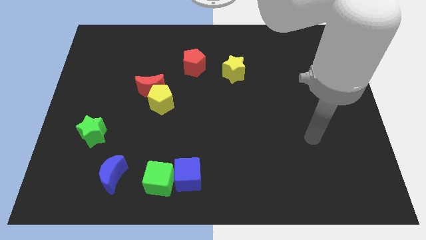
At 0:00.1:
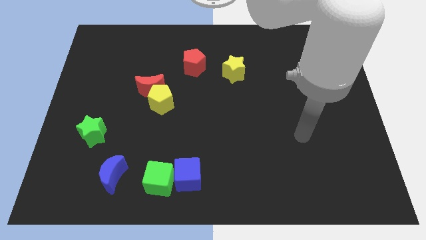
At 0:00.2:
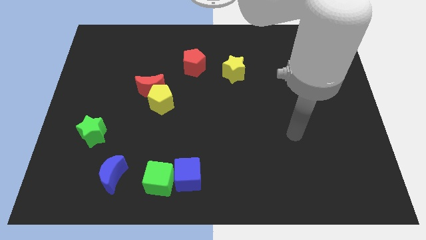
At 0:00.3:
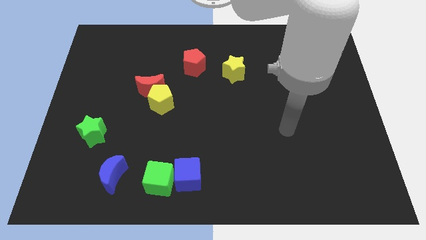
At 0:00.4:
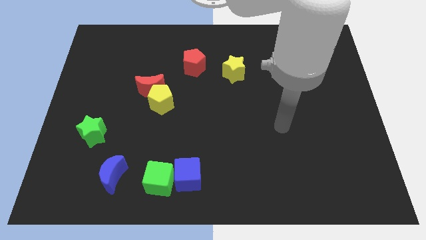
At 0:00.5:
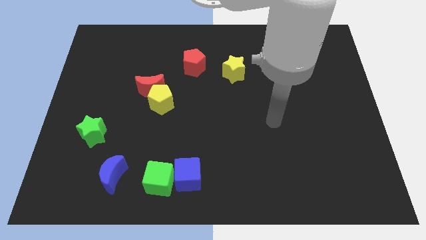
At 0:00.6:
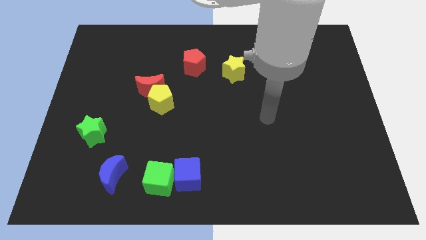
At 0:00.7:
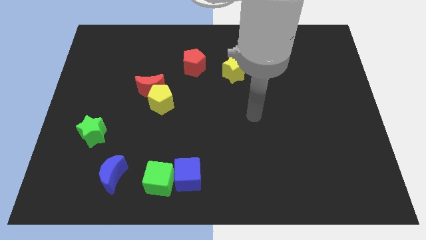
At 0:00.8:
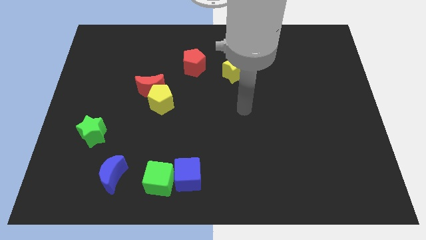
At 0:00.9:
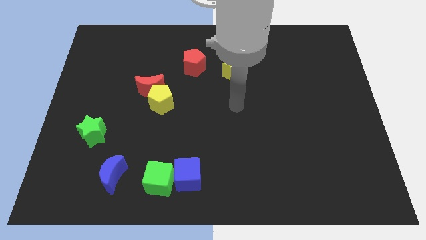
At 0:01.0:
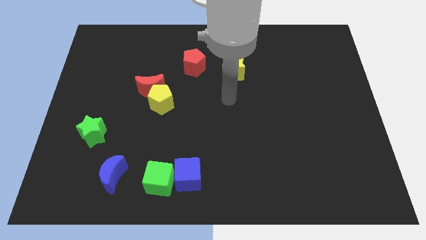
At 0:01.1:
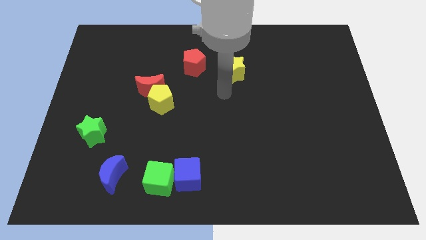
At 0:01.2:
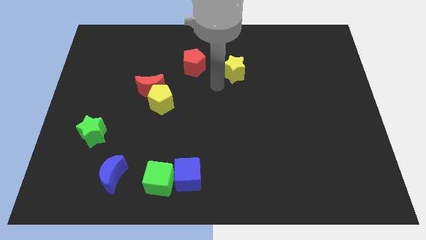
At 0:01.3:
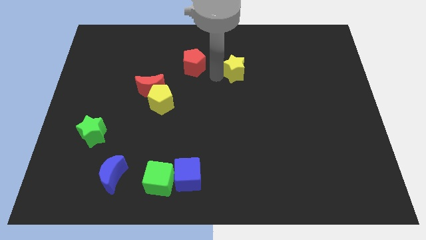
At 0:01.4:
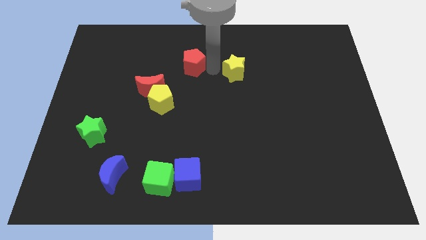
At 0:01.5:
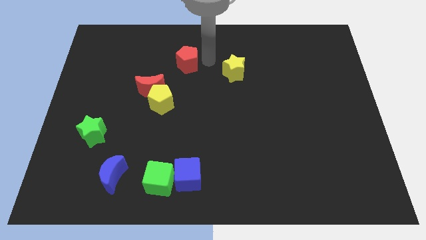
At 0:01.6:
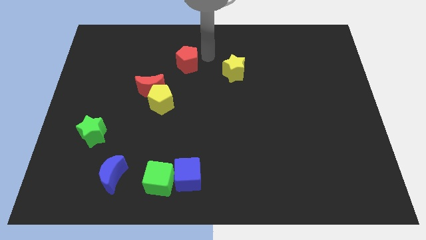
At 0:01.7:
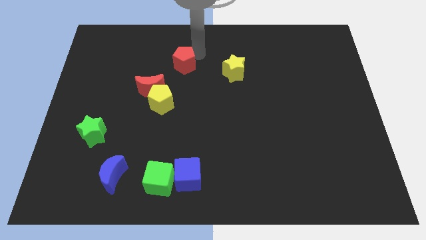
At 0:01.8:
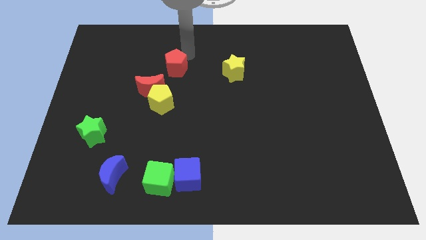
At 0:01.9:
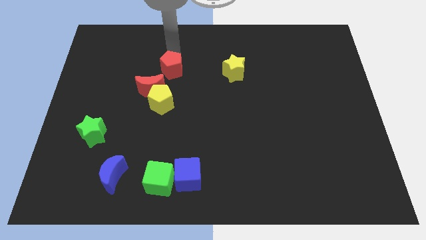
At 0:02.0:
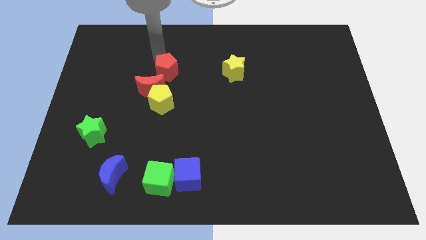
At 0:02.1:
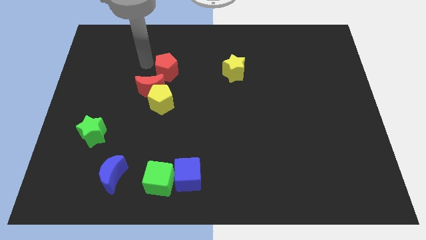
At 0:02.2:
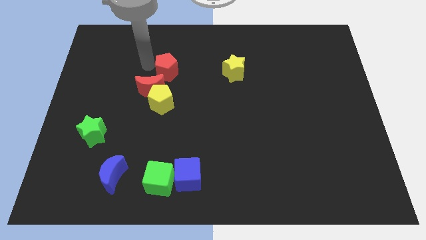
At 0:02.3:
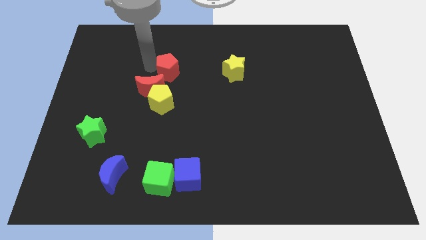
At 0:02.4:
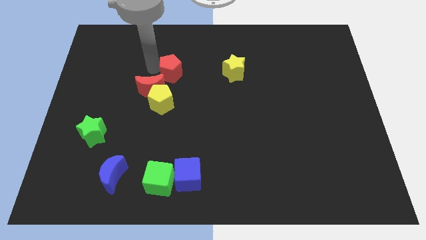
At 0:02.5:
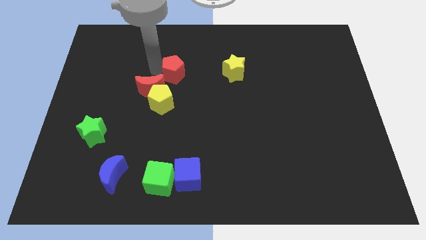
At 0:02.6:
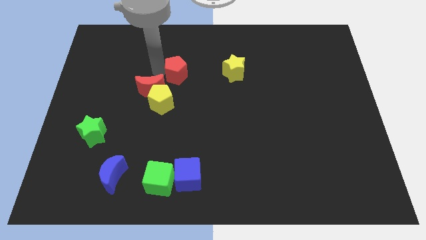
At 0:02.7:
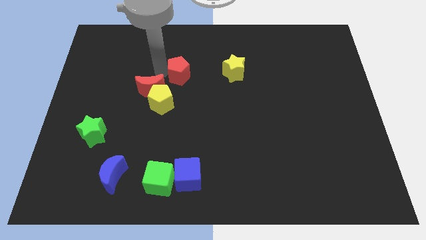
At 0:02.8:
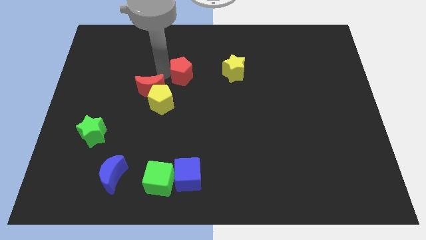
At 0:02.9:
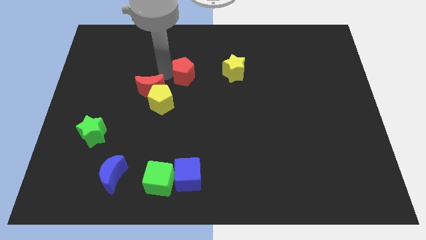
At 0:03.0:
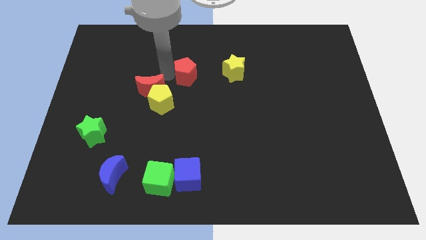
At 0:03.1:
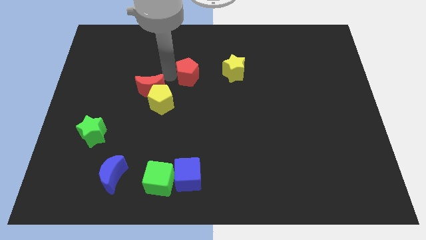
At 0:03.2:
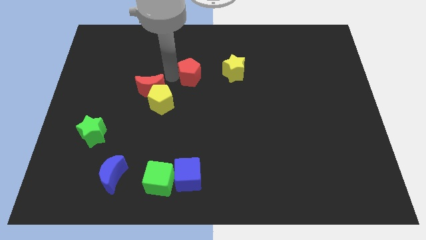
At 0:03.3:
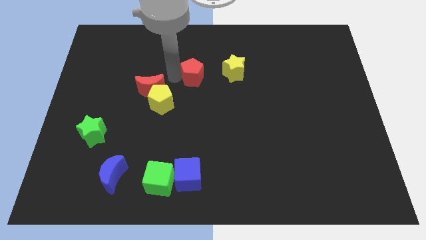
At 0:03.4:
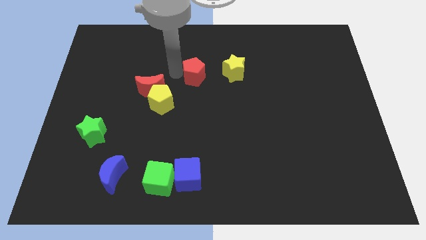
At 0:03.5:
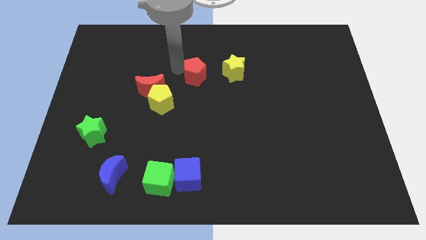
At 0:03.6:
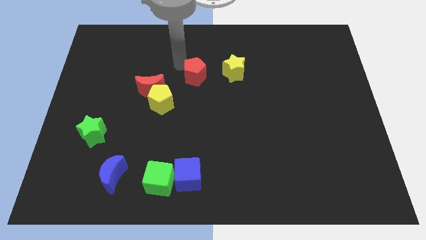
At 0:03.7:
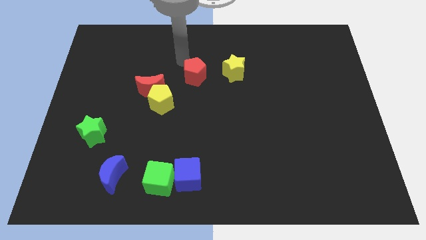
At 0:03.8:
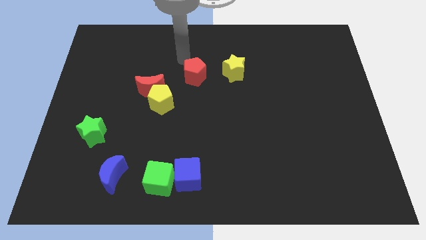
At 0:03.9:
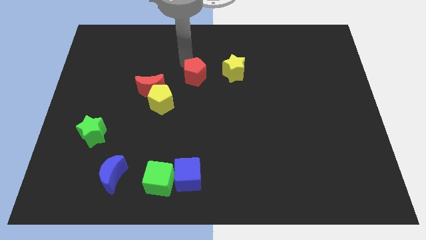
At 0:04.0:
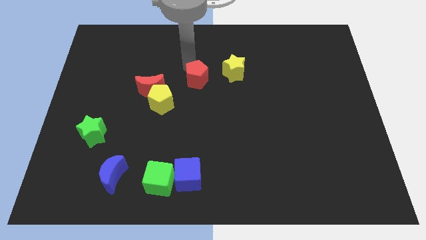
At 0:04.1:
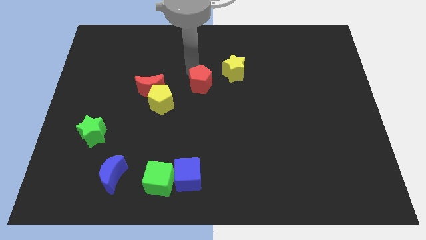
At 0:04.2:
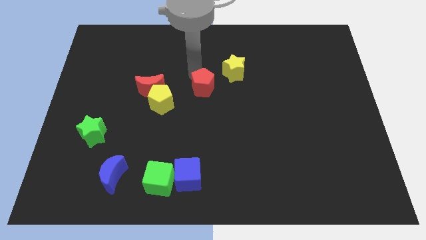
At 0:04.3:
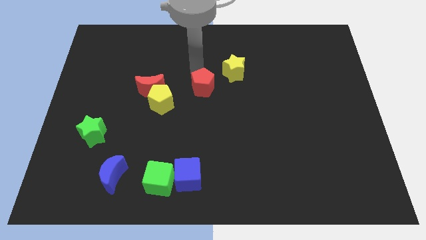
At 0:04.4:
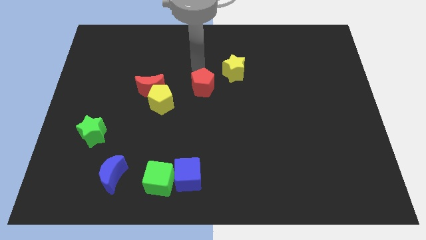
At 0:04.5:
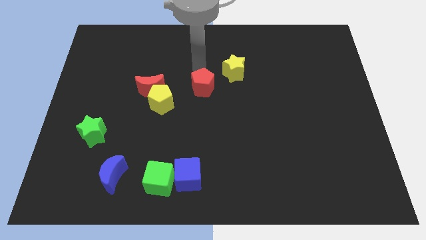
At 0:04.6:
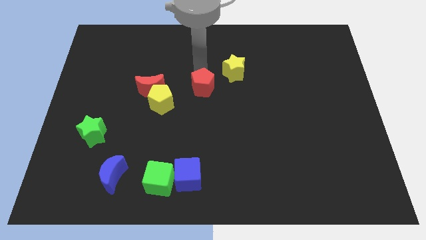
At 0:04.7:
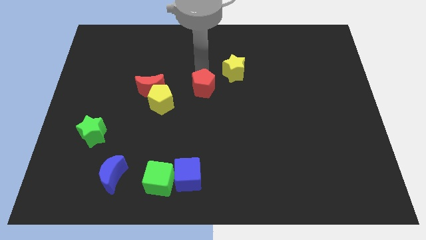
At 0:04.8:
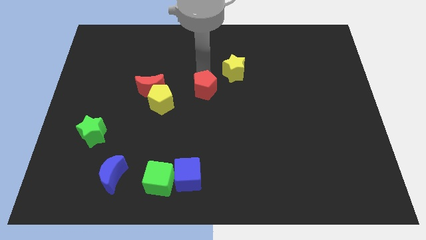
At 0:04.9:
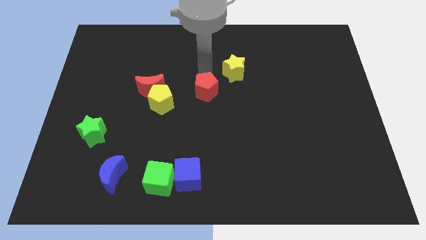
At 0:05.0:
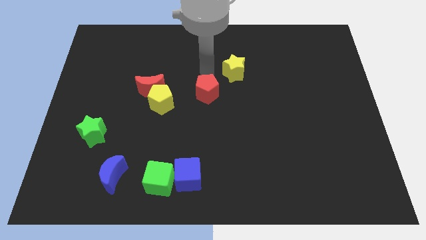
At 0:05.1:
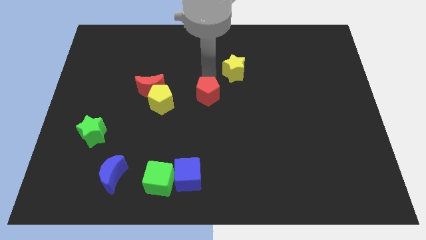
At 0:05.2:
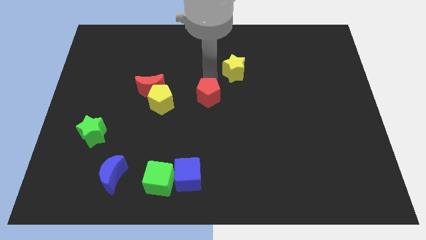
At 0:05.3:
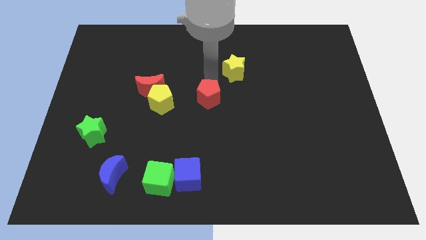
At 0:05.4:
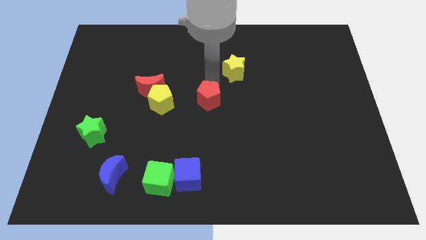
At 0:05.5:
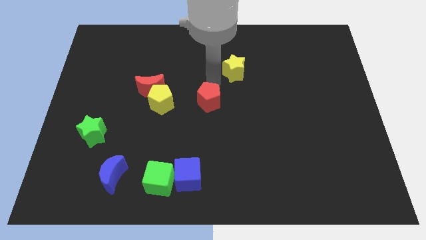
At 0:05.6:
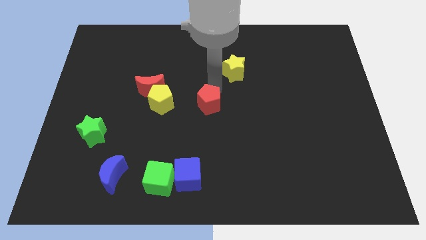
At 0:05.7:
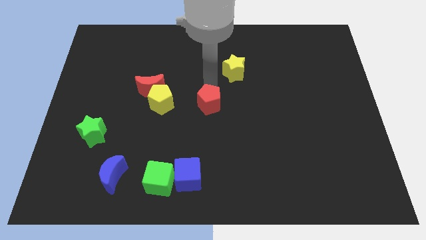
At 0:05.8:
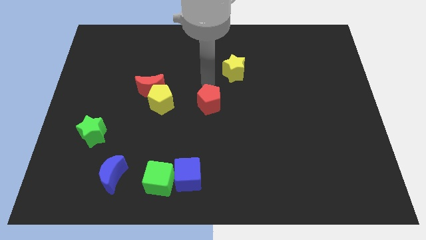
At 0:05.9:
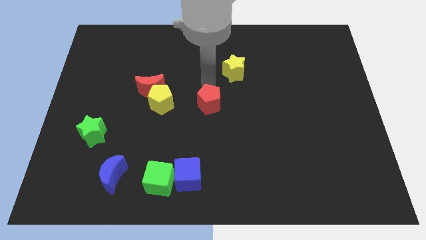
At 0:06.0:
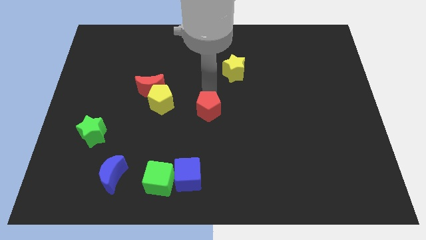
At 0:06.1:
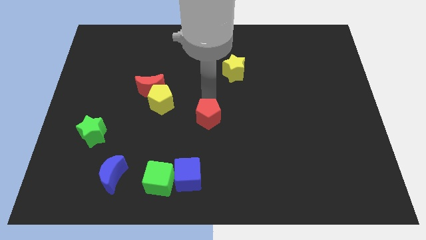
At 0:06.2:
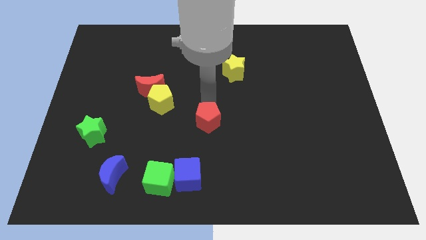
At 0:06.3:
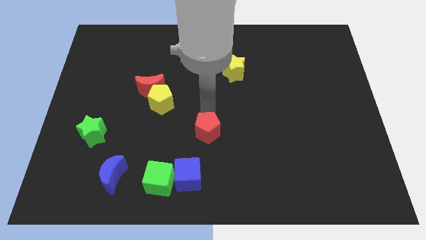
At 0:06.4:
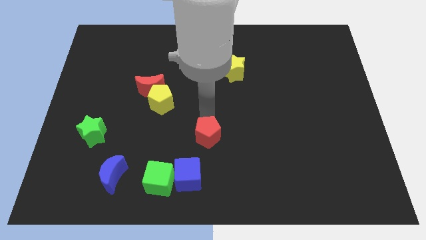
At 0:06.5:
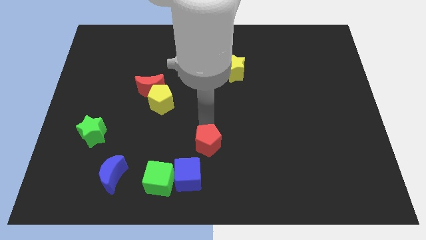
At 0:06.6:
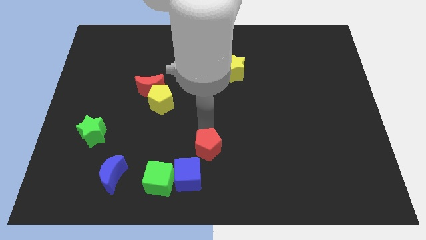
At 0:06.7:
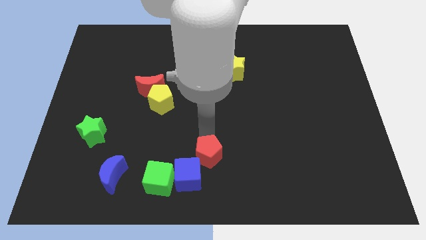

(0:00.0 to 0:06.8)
put the red pentagon to the bottom side

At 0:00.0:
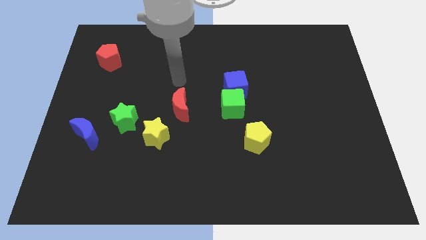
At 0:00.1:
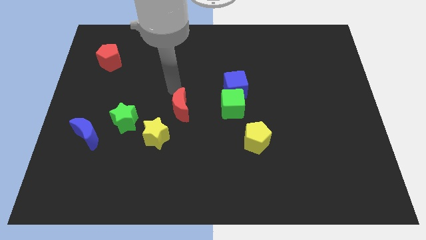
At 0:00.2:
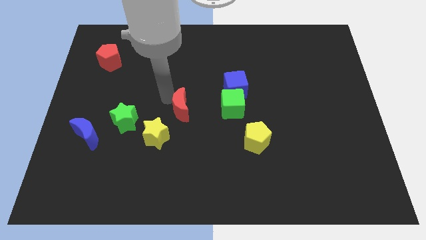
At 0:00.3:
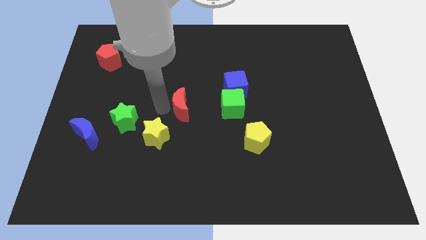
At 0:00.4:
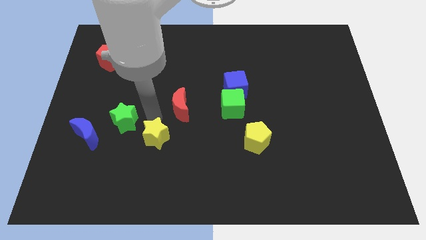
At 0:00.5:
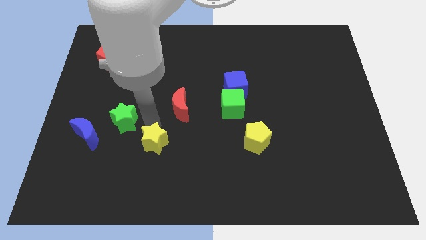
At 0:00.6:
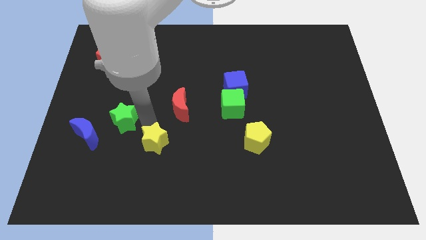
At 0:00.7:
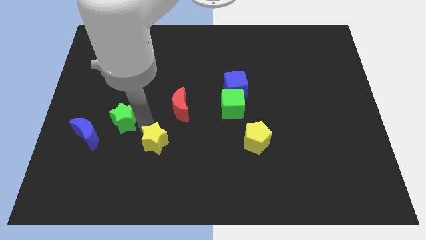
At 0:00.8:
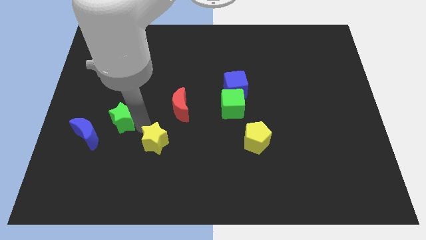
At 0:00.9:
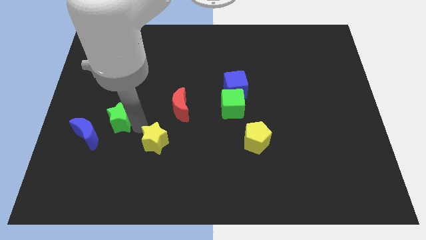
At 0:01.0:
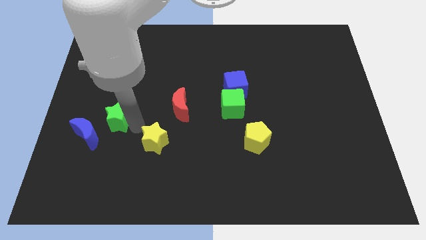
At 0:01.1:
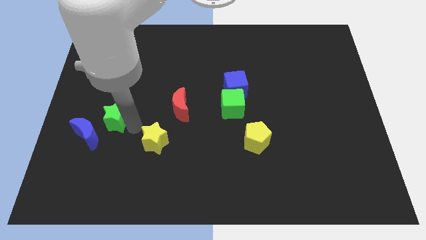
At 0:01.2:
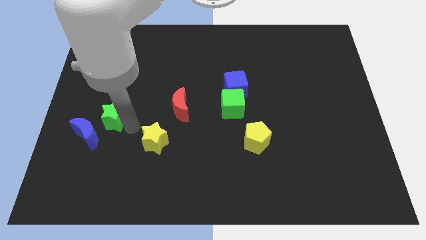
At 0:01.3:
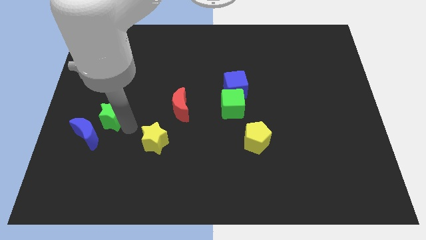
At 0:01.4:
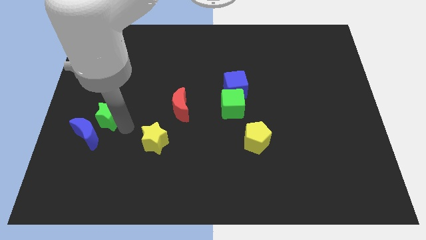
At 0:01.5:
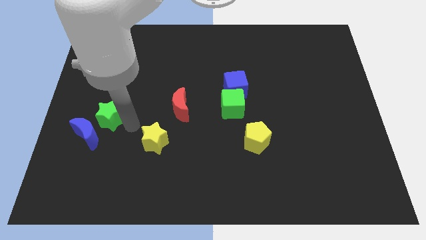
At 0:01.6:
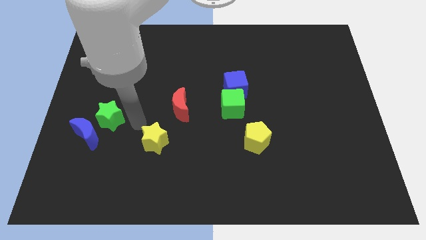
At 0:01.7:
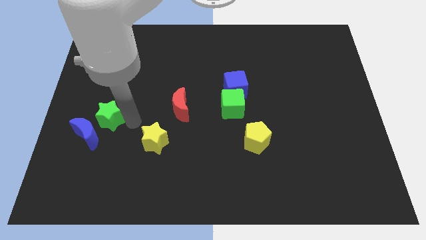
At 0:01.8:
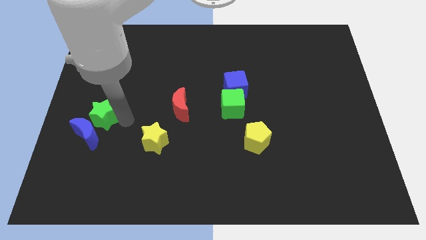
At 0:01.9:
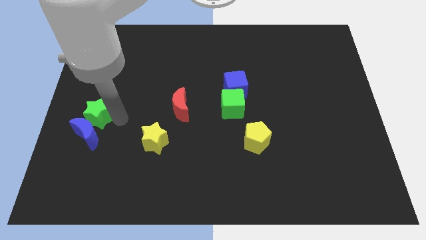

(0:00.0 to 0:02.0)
push the green star to the left side
